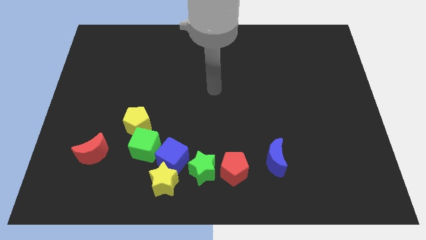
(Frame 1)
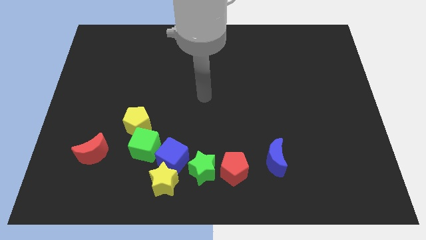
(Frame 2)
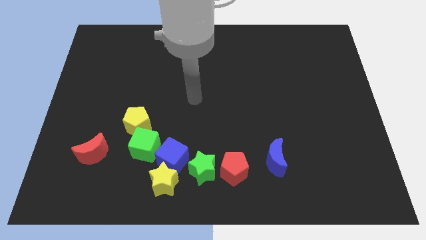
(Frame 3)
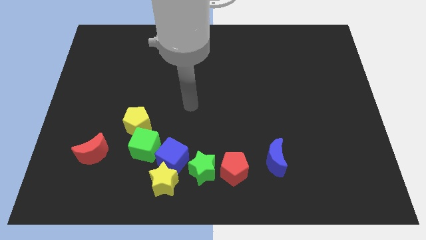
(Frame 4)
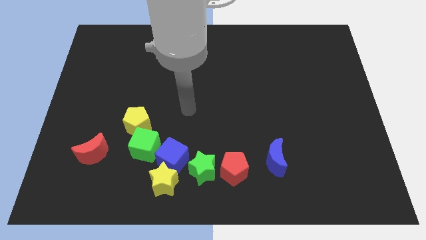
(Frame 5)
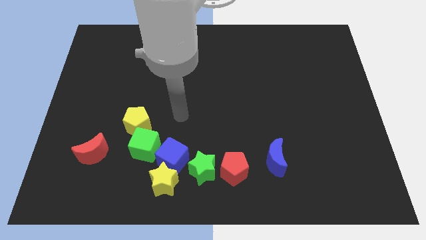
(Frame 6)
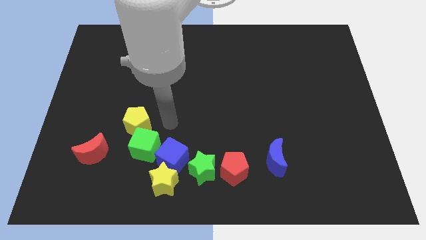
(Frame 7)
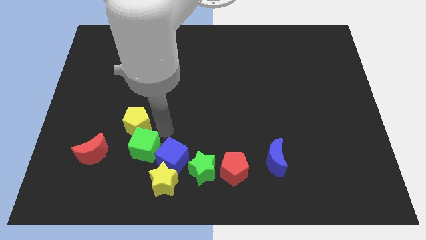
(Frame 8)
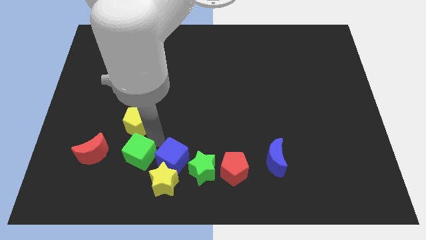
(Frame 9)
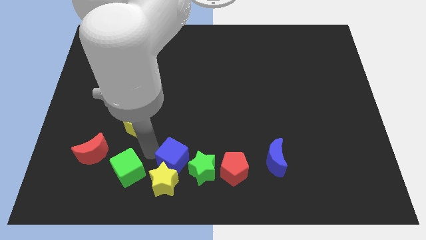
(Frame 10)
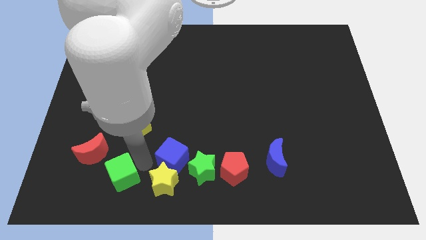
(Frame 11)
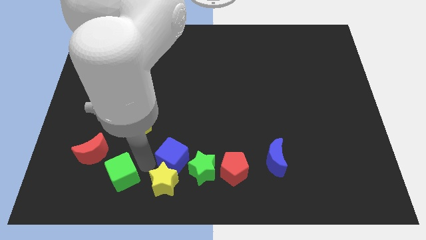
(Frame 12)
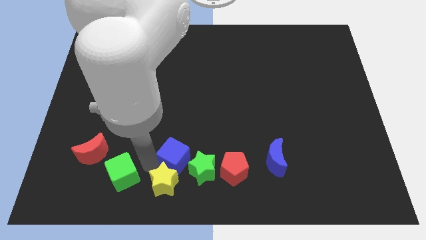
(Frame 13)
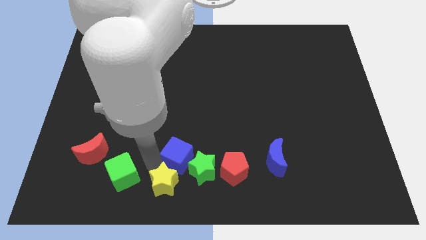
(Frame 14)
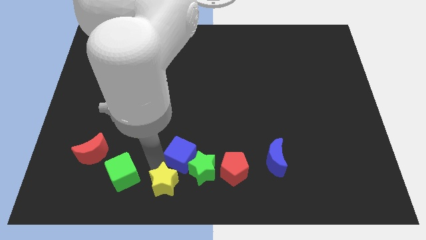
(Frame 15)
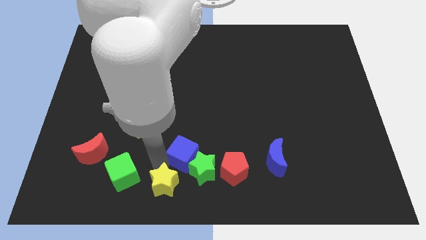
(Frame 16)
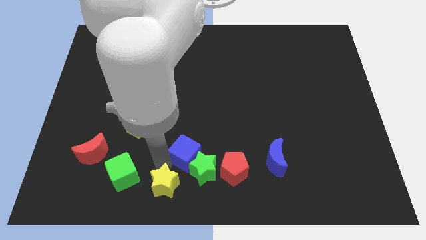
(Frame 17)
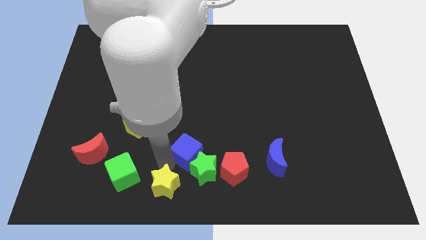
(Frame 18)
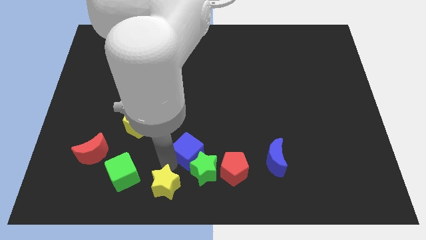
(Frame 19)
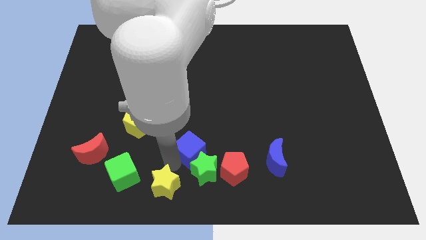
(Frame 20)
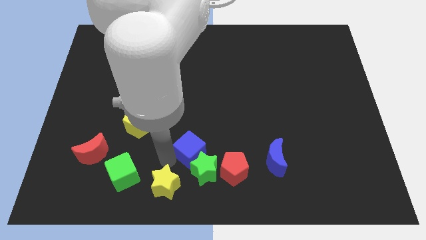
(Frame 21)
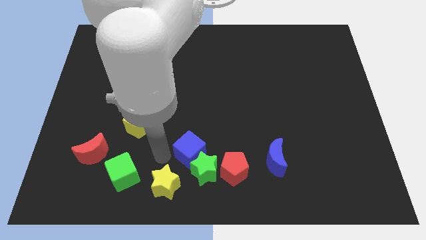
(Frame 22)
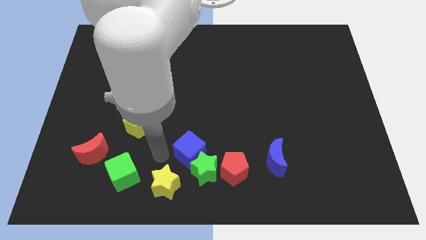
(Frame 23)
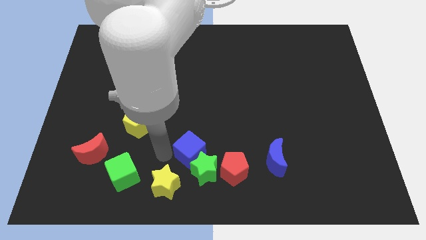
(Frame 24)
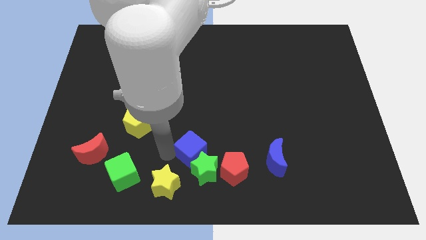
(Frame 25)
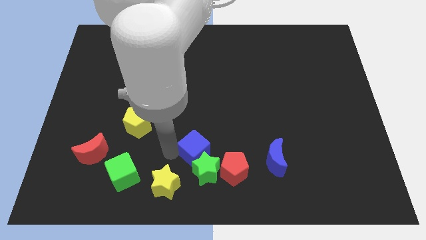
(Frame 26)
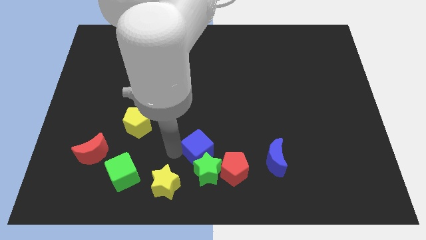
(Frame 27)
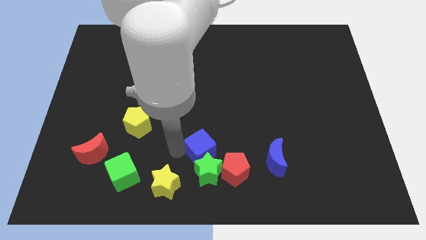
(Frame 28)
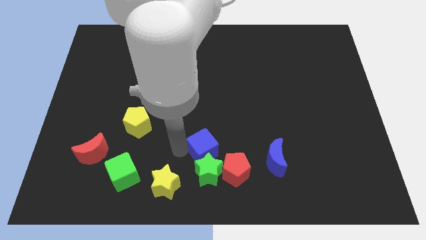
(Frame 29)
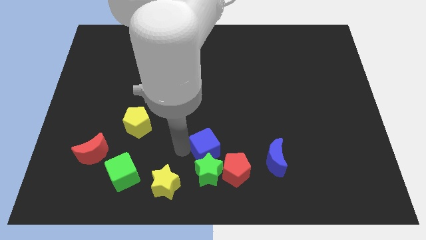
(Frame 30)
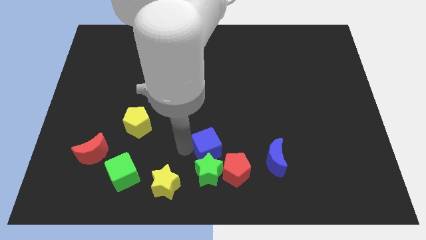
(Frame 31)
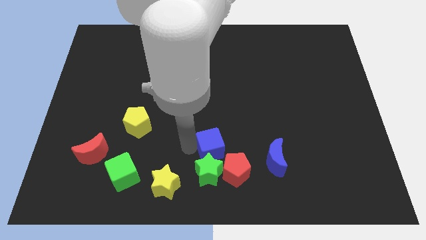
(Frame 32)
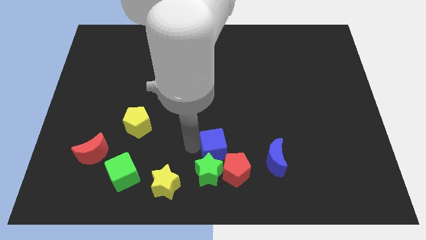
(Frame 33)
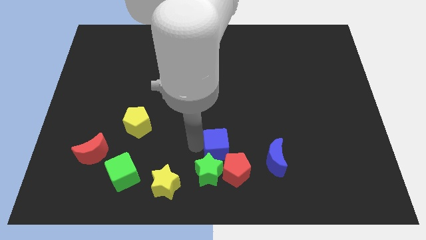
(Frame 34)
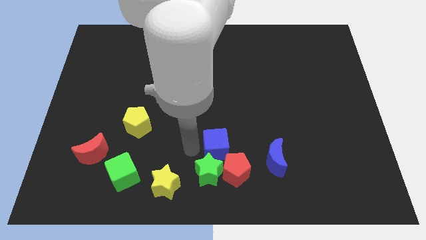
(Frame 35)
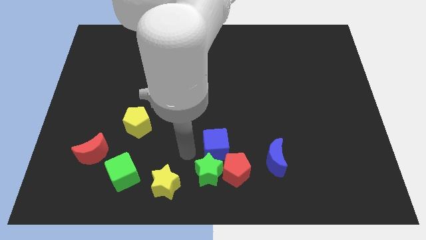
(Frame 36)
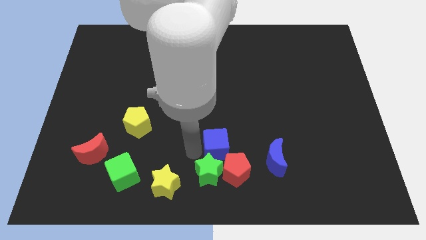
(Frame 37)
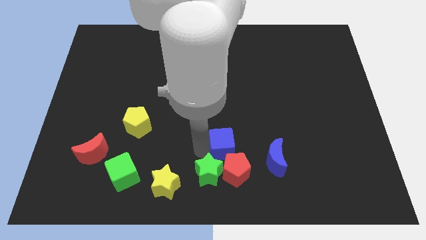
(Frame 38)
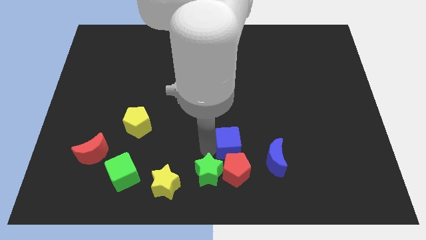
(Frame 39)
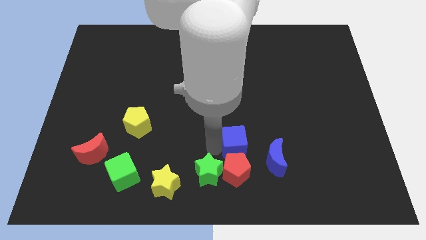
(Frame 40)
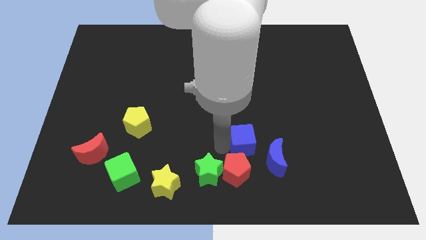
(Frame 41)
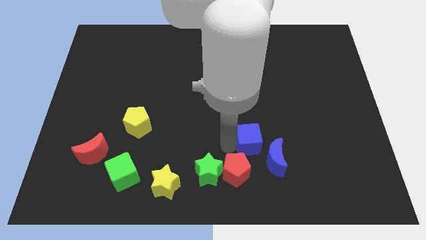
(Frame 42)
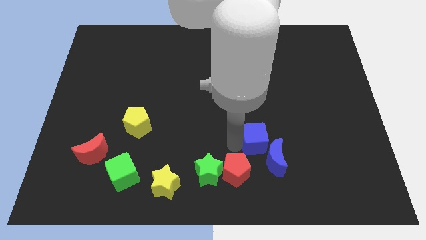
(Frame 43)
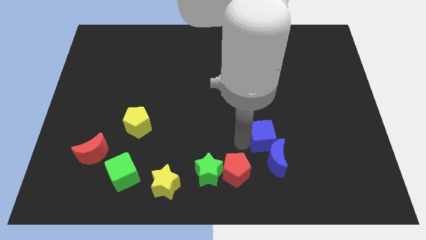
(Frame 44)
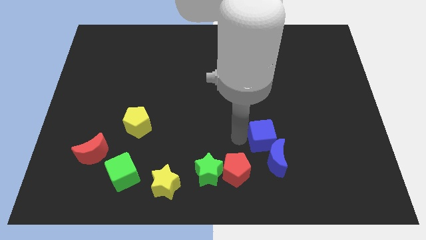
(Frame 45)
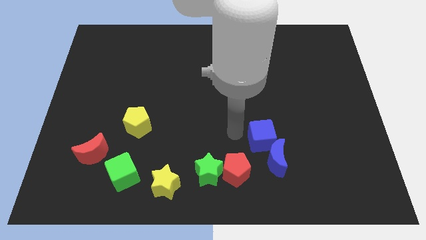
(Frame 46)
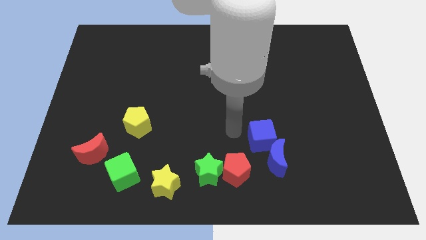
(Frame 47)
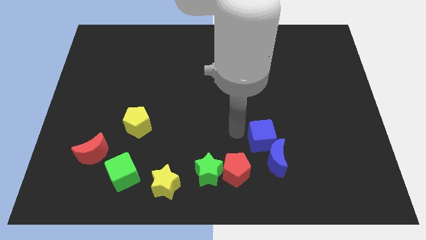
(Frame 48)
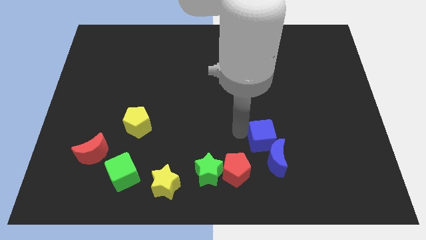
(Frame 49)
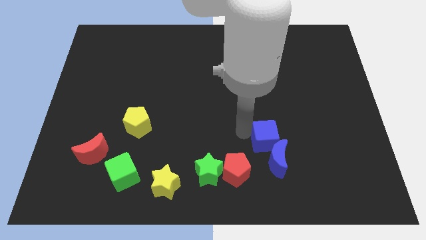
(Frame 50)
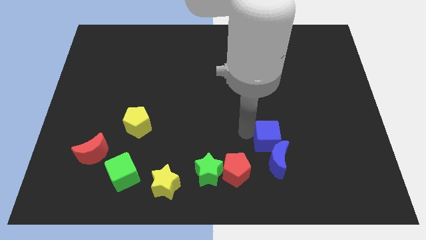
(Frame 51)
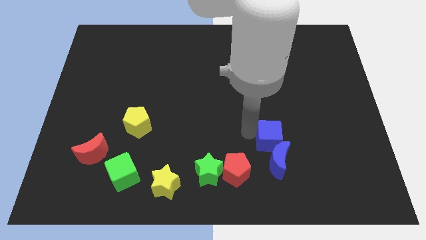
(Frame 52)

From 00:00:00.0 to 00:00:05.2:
move the blue cube to the right

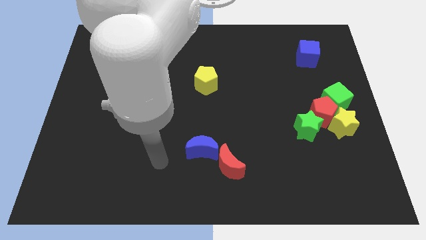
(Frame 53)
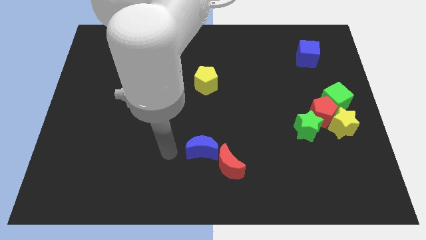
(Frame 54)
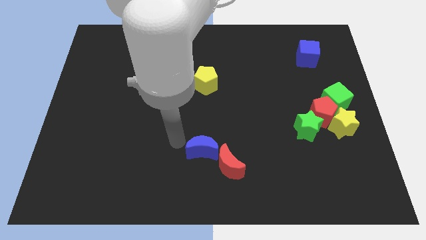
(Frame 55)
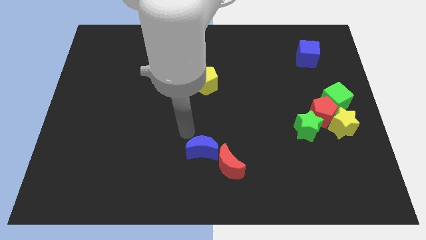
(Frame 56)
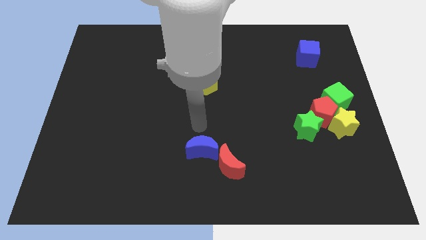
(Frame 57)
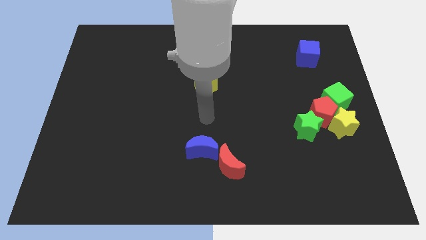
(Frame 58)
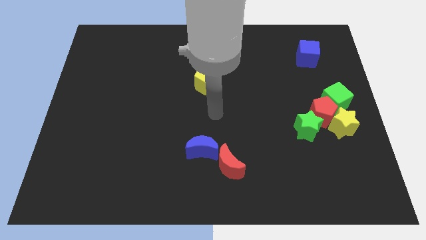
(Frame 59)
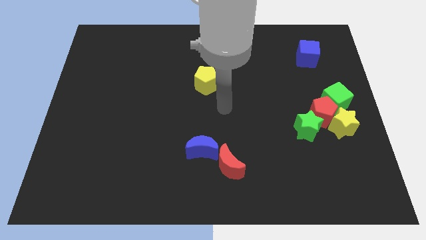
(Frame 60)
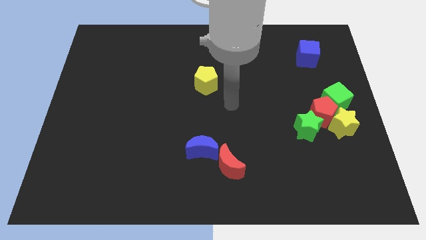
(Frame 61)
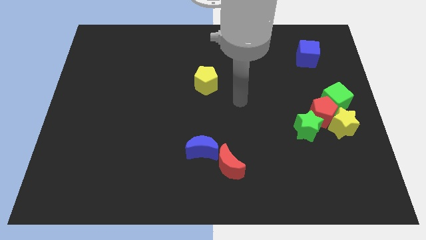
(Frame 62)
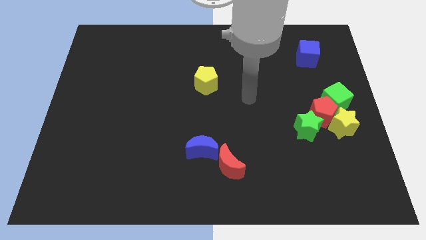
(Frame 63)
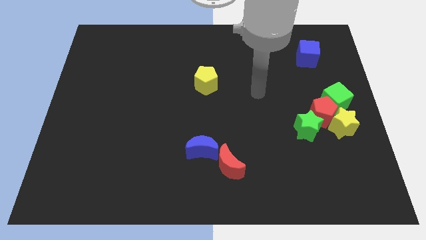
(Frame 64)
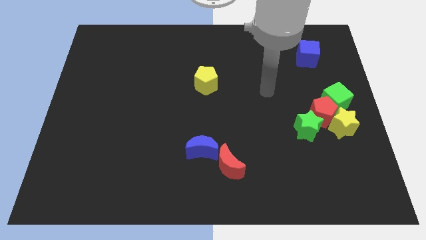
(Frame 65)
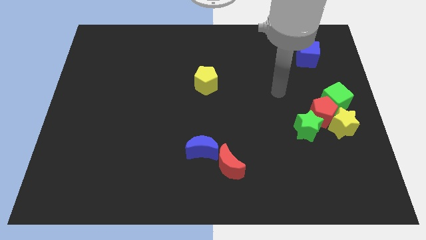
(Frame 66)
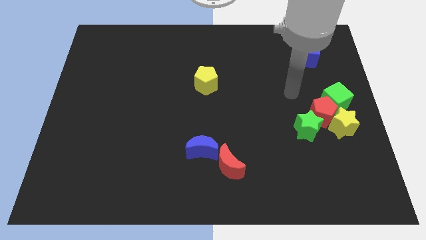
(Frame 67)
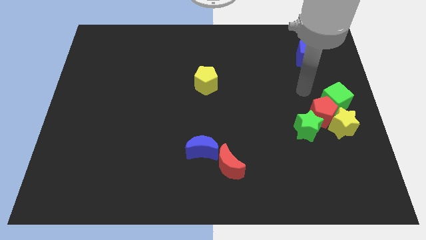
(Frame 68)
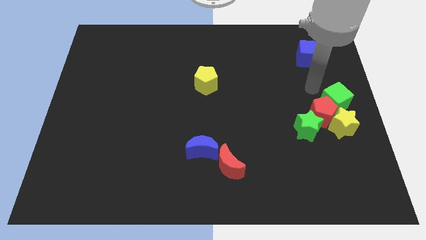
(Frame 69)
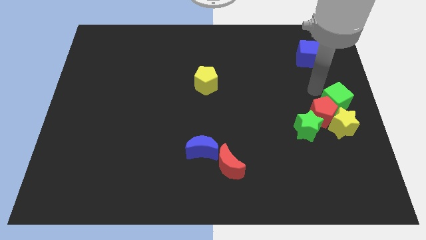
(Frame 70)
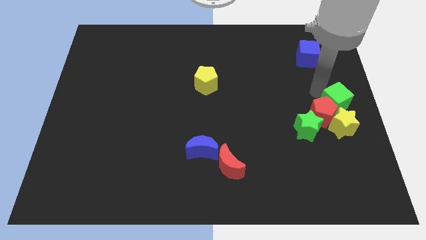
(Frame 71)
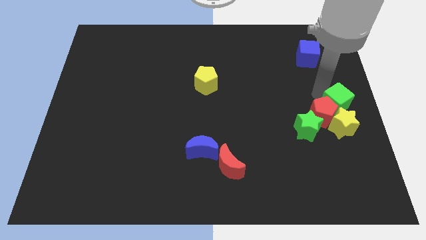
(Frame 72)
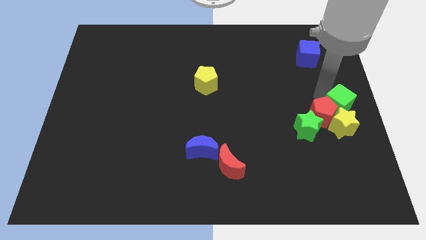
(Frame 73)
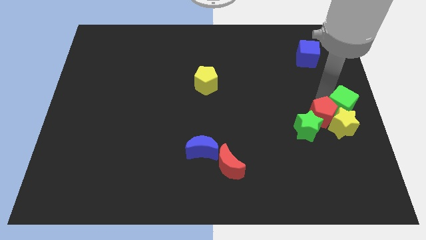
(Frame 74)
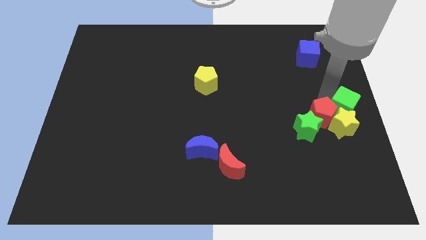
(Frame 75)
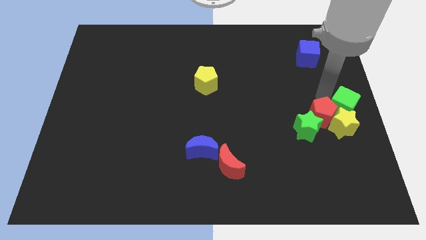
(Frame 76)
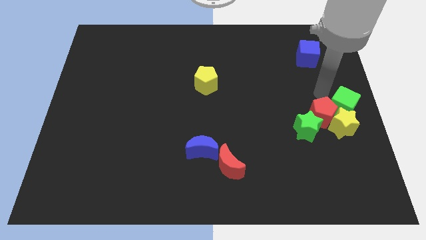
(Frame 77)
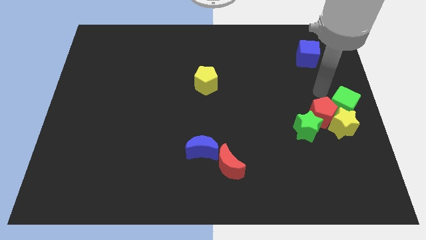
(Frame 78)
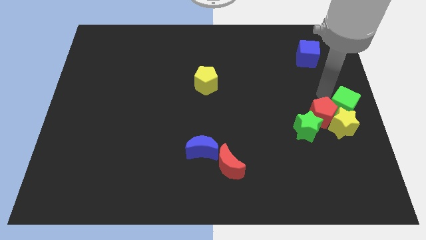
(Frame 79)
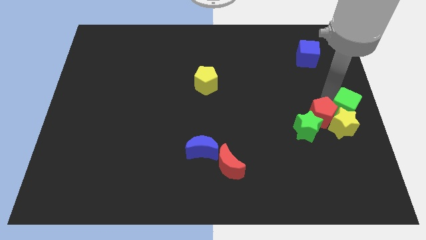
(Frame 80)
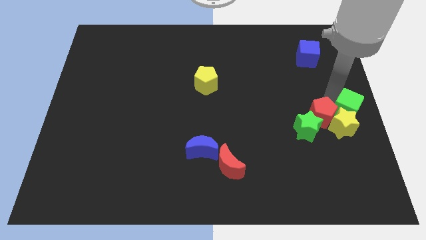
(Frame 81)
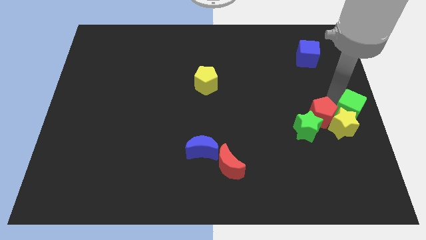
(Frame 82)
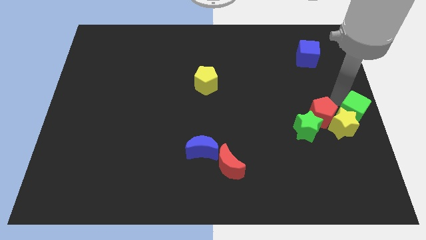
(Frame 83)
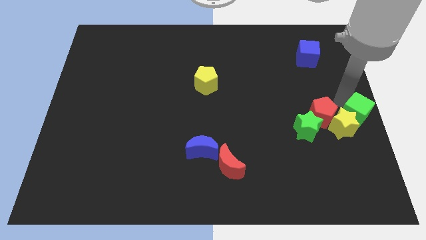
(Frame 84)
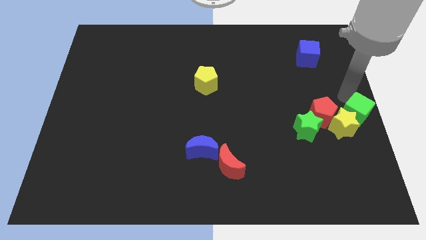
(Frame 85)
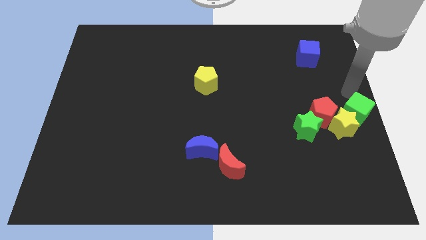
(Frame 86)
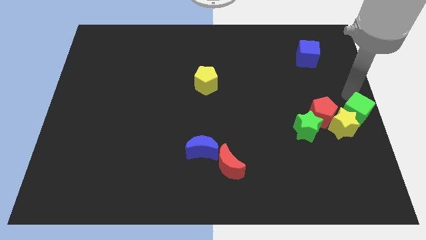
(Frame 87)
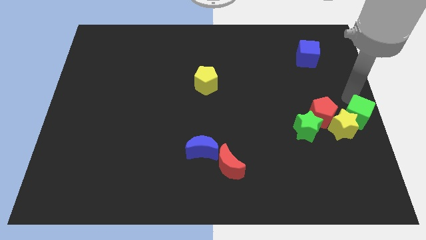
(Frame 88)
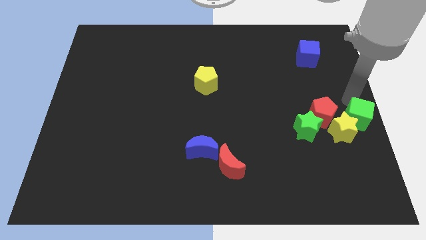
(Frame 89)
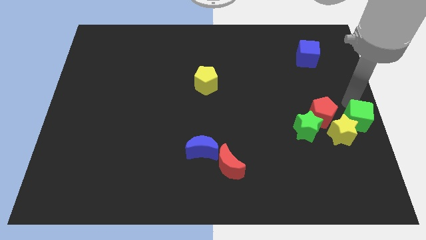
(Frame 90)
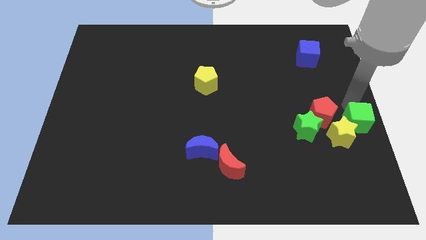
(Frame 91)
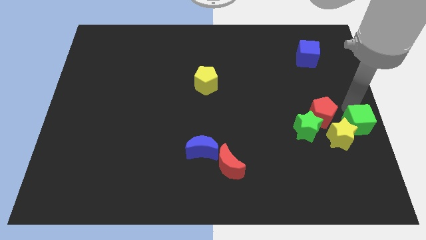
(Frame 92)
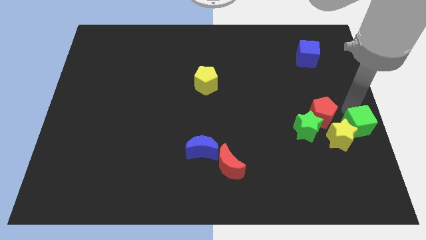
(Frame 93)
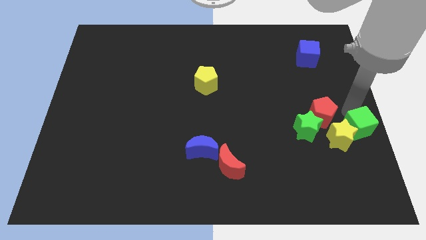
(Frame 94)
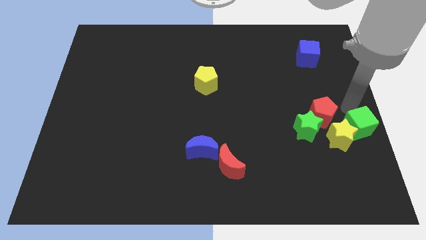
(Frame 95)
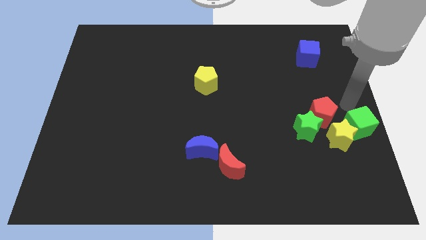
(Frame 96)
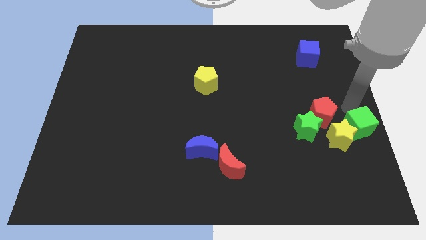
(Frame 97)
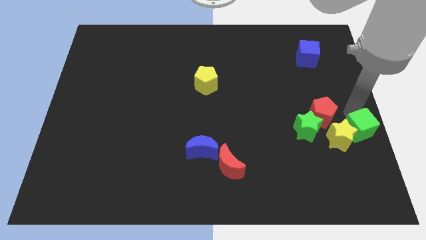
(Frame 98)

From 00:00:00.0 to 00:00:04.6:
push the green cube a little bit down
